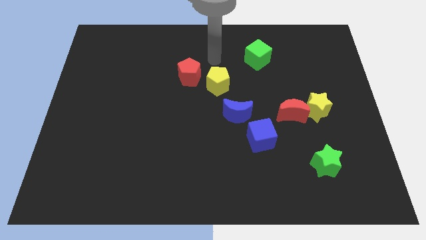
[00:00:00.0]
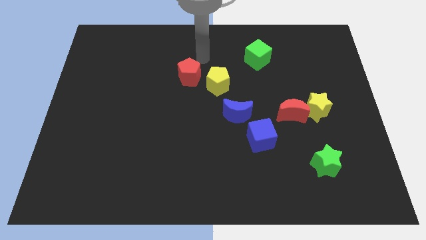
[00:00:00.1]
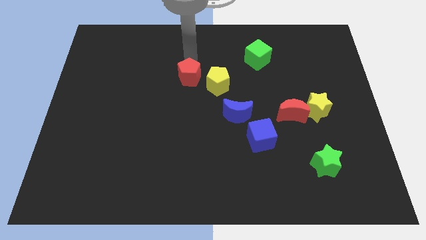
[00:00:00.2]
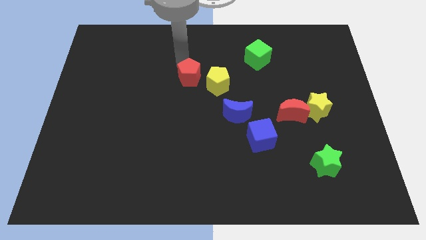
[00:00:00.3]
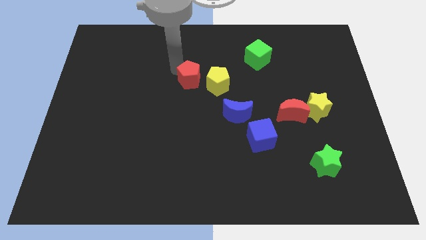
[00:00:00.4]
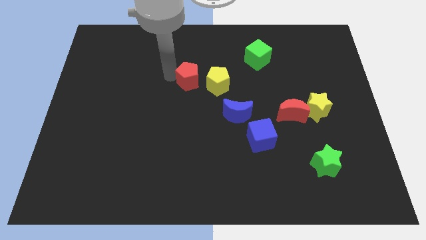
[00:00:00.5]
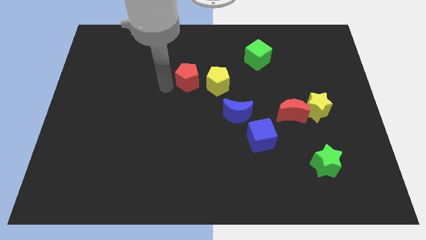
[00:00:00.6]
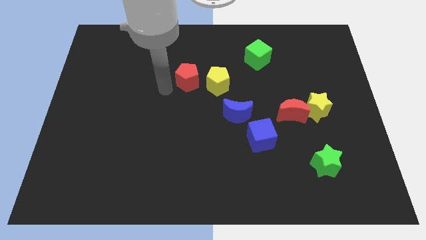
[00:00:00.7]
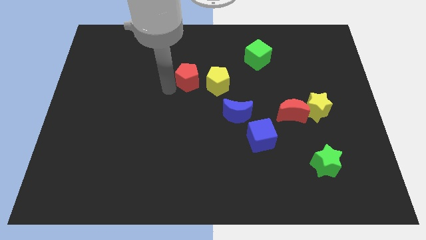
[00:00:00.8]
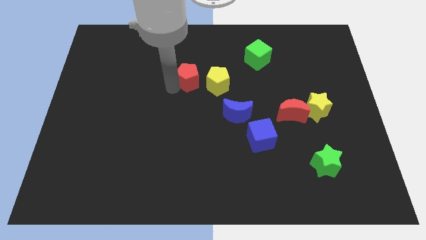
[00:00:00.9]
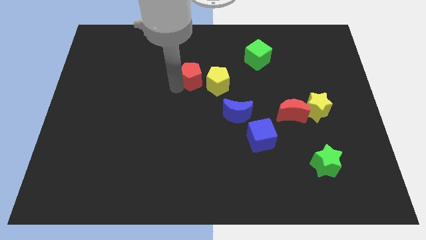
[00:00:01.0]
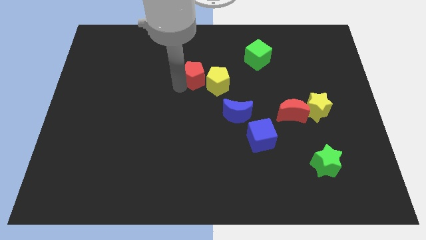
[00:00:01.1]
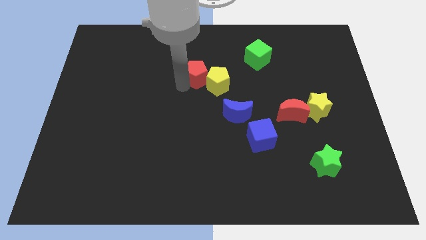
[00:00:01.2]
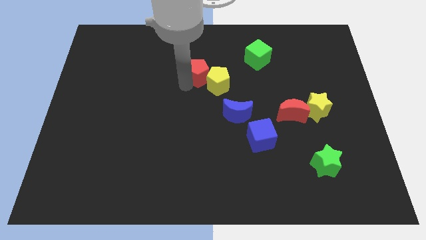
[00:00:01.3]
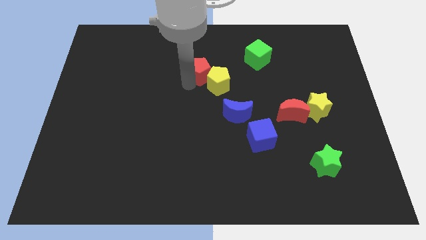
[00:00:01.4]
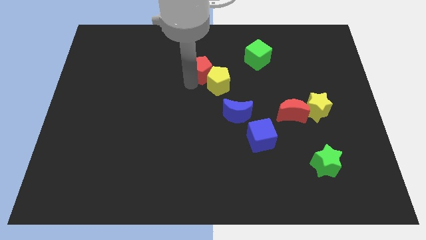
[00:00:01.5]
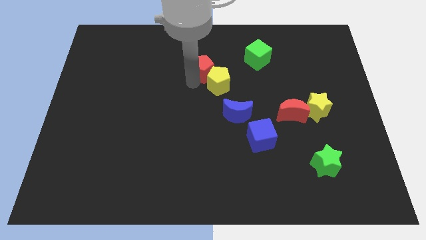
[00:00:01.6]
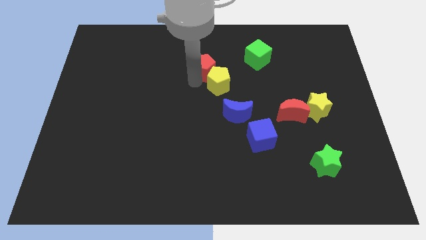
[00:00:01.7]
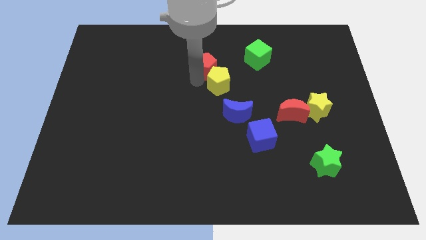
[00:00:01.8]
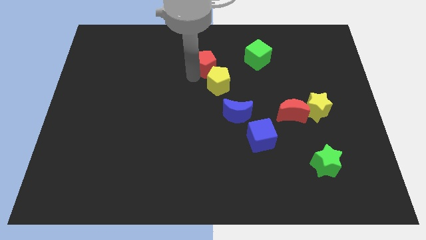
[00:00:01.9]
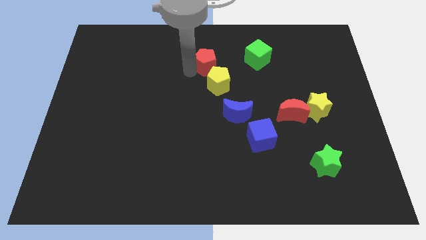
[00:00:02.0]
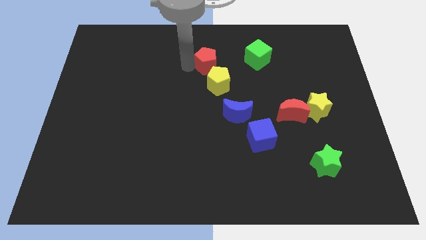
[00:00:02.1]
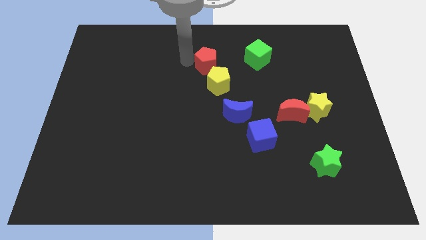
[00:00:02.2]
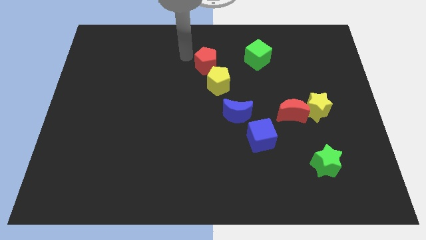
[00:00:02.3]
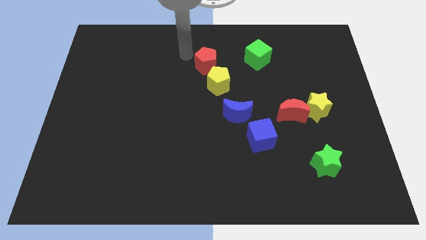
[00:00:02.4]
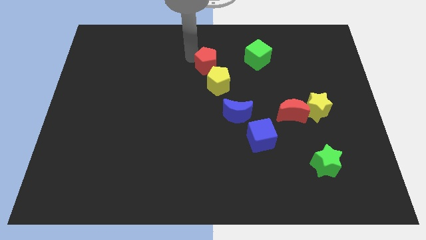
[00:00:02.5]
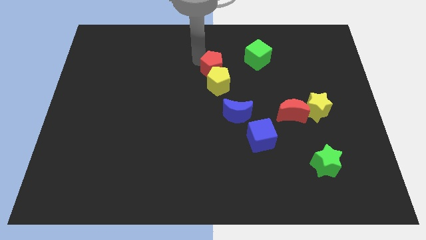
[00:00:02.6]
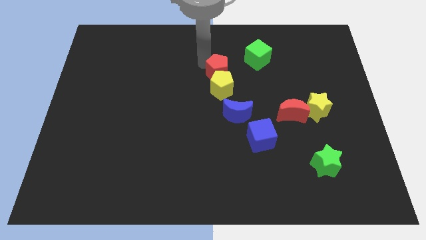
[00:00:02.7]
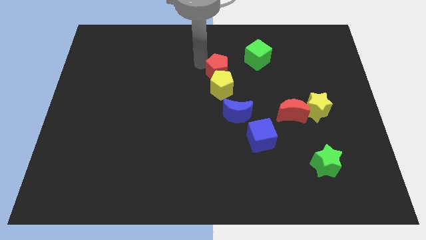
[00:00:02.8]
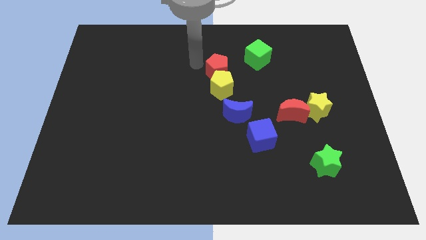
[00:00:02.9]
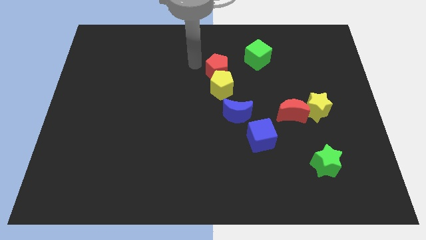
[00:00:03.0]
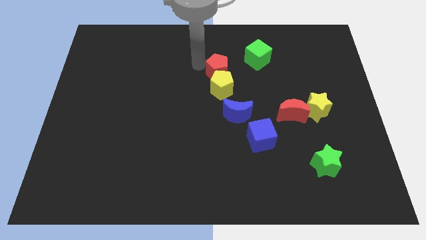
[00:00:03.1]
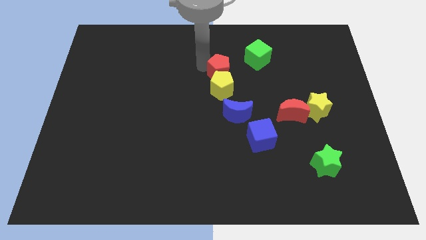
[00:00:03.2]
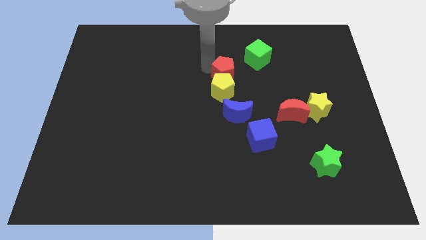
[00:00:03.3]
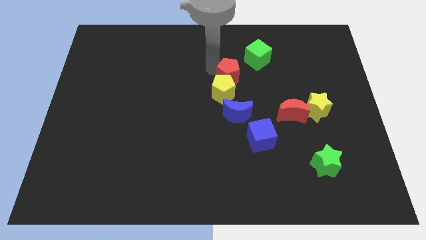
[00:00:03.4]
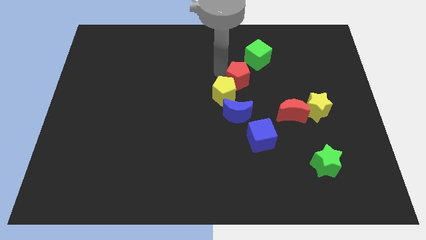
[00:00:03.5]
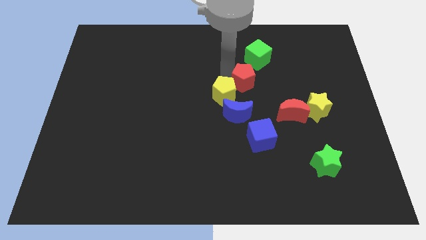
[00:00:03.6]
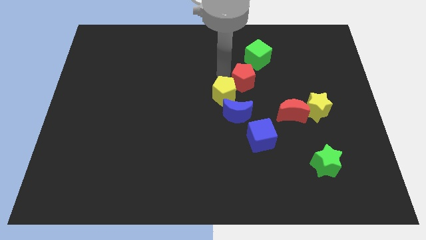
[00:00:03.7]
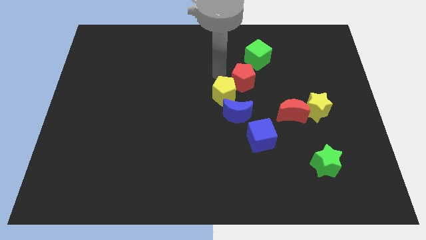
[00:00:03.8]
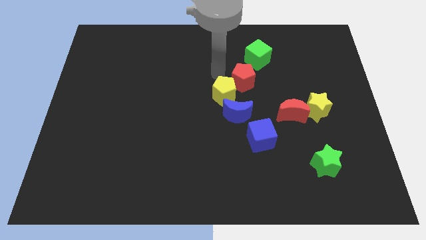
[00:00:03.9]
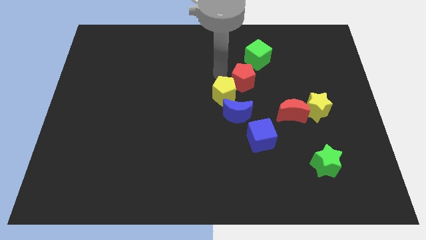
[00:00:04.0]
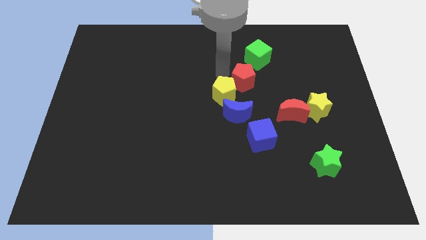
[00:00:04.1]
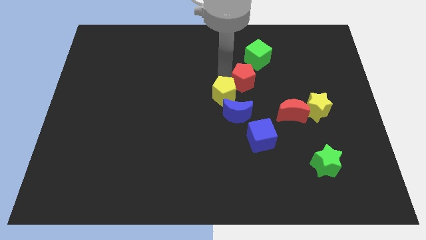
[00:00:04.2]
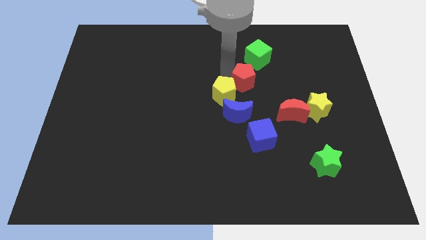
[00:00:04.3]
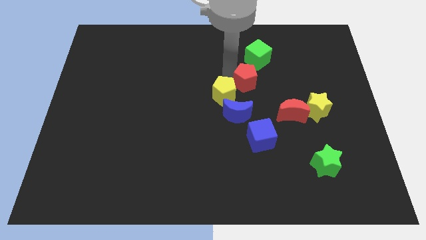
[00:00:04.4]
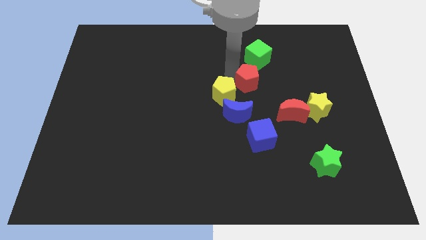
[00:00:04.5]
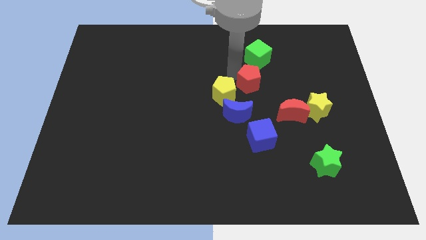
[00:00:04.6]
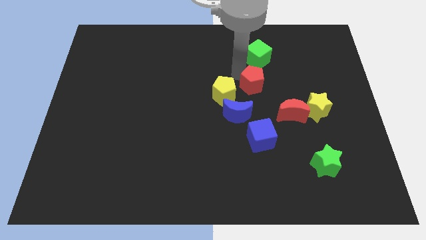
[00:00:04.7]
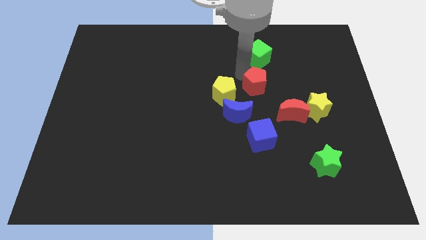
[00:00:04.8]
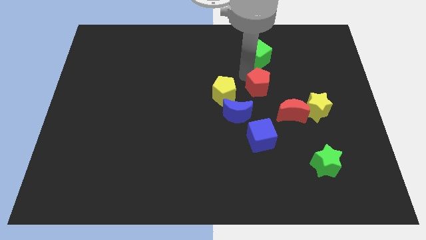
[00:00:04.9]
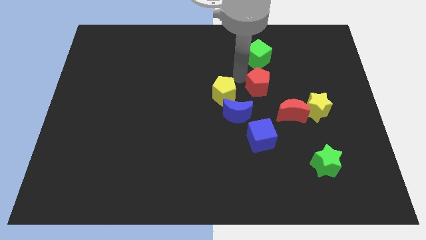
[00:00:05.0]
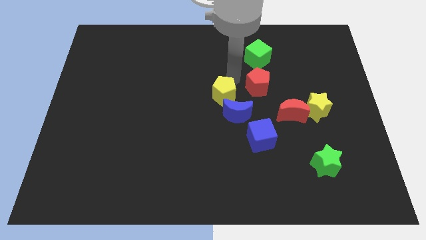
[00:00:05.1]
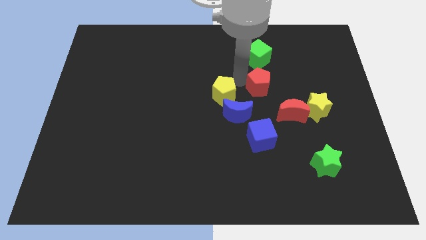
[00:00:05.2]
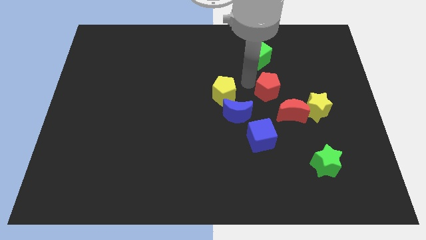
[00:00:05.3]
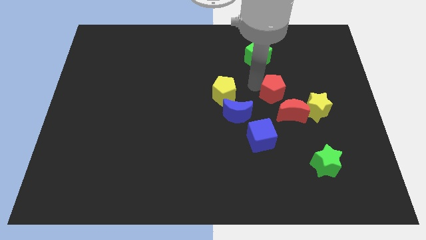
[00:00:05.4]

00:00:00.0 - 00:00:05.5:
put the red pentagon to the top left side of the yellow star
